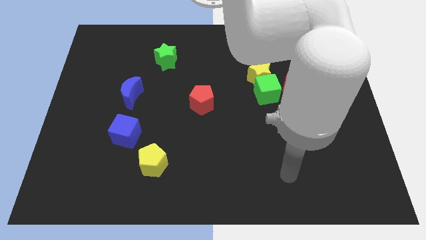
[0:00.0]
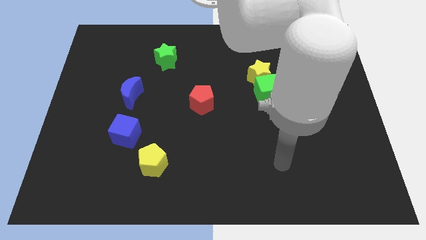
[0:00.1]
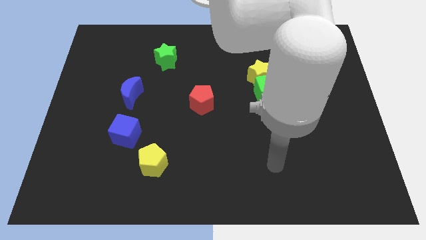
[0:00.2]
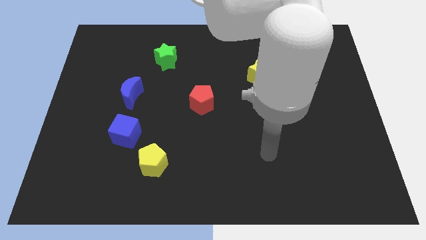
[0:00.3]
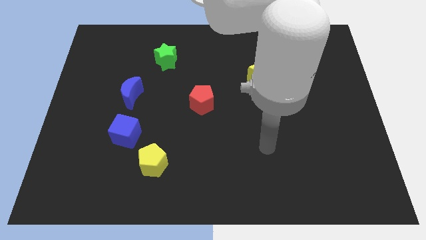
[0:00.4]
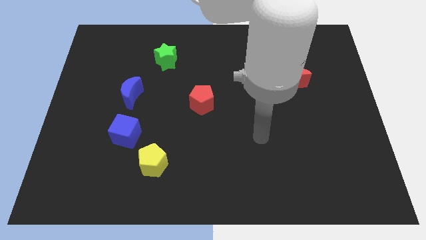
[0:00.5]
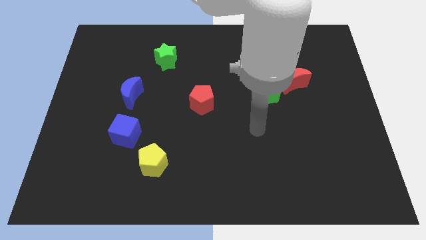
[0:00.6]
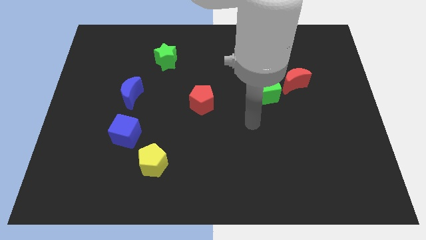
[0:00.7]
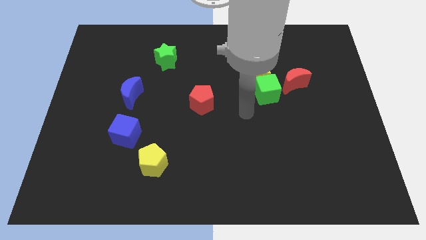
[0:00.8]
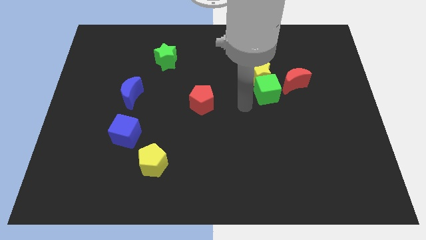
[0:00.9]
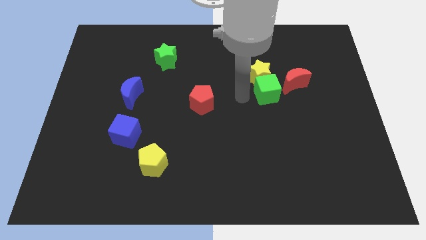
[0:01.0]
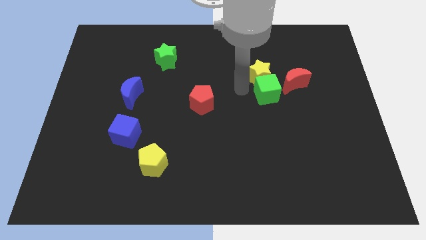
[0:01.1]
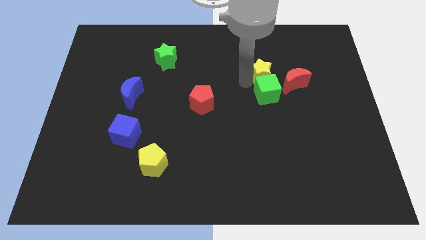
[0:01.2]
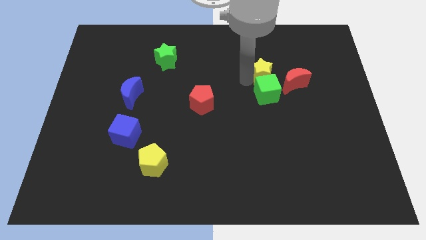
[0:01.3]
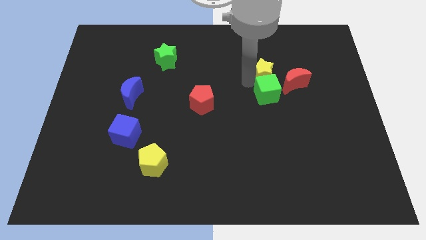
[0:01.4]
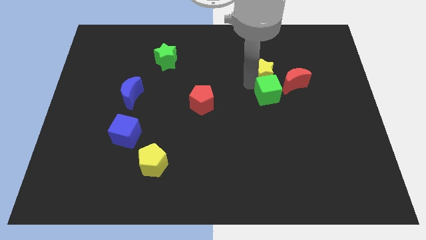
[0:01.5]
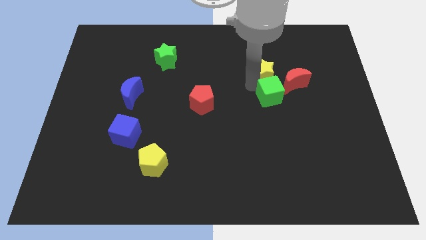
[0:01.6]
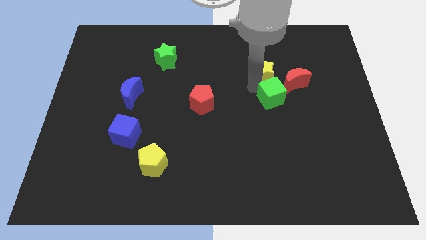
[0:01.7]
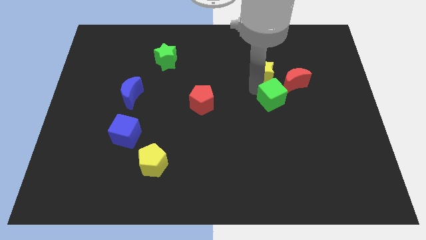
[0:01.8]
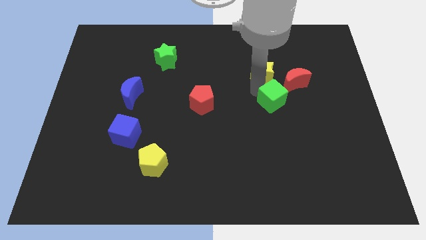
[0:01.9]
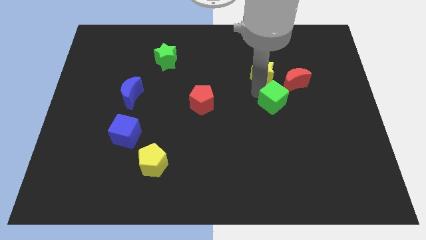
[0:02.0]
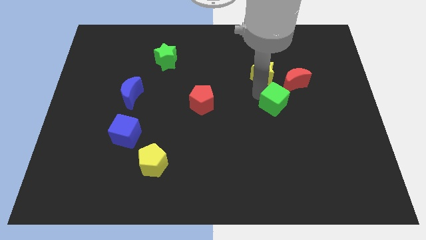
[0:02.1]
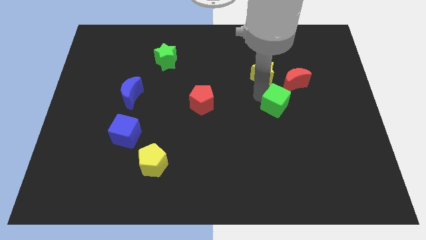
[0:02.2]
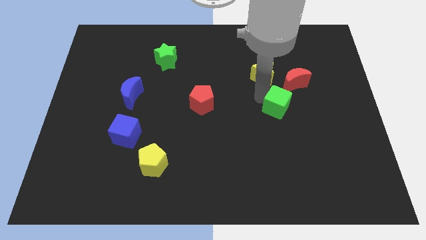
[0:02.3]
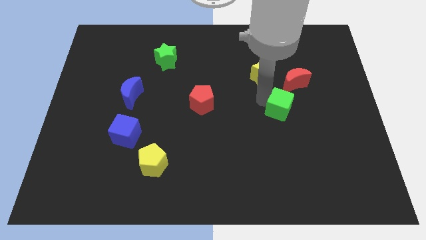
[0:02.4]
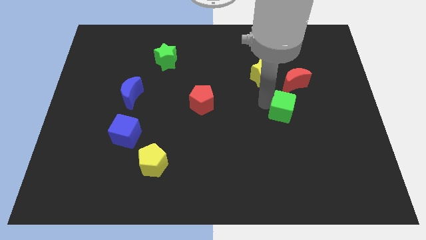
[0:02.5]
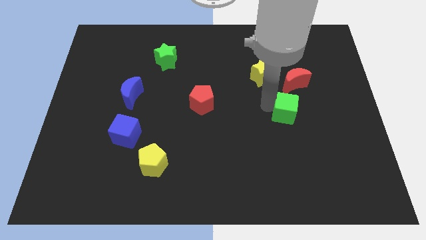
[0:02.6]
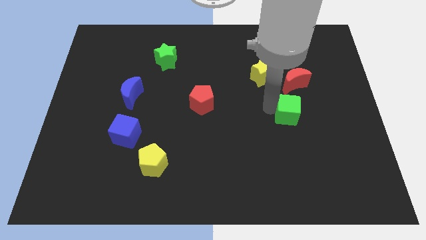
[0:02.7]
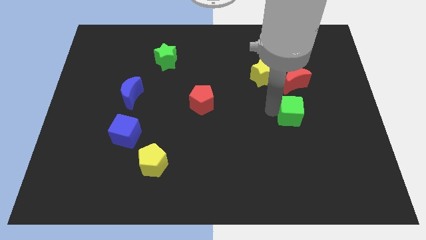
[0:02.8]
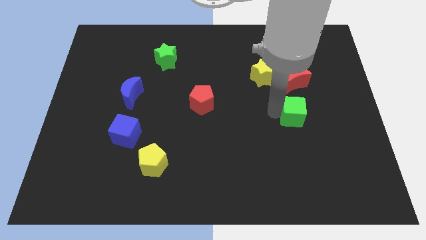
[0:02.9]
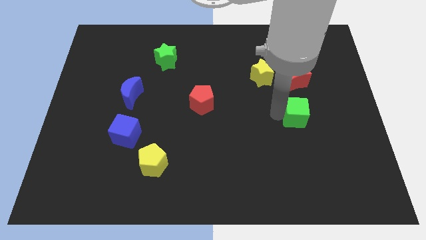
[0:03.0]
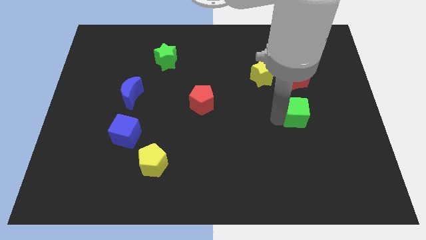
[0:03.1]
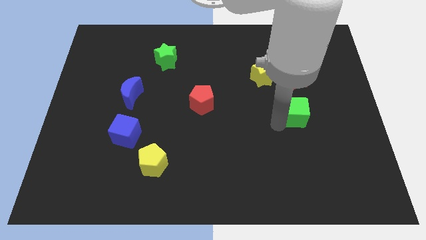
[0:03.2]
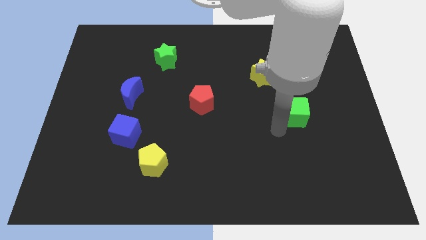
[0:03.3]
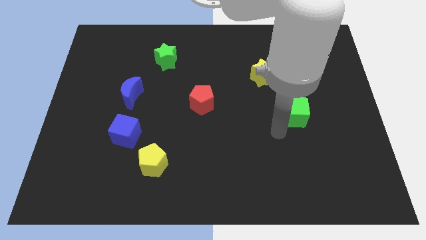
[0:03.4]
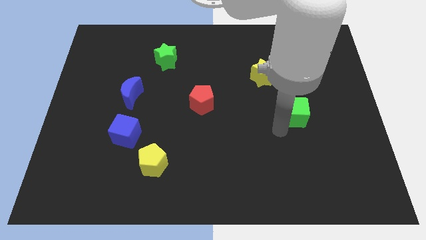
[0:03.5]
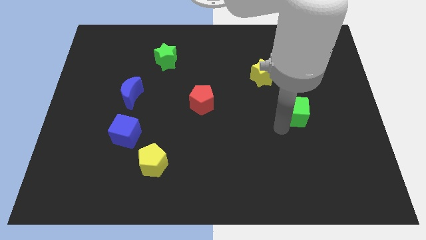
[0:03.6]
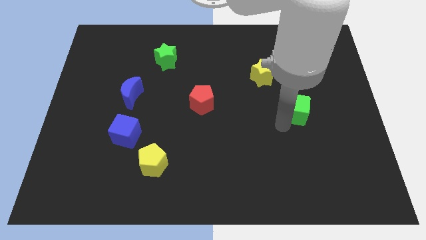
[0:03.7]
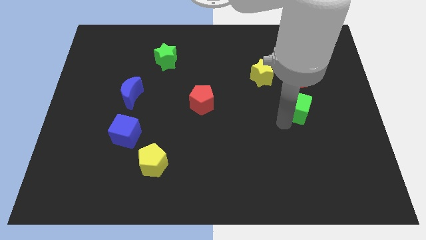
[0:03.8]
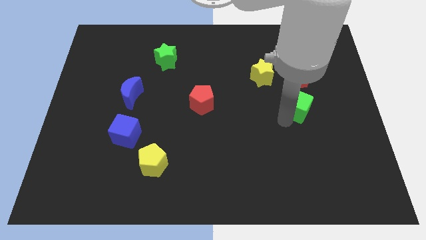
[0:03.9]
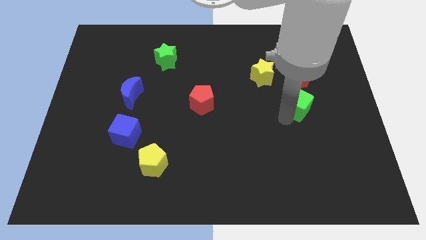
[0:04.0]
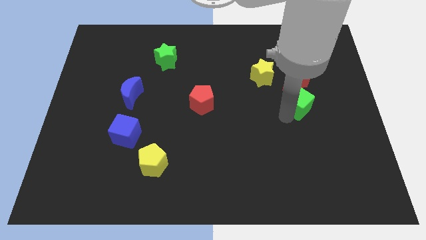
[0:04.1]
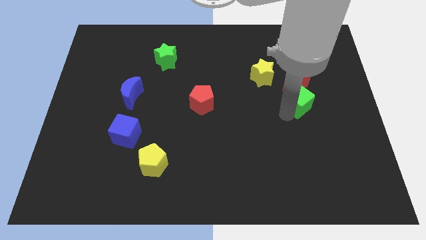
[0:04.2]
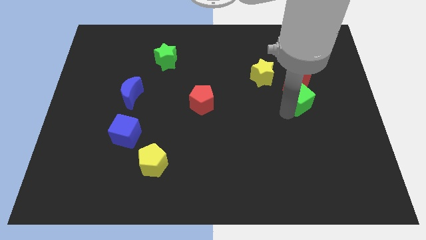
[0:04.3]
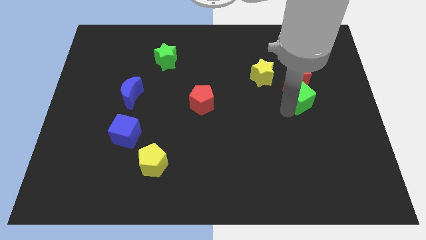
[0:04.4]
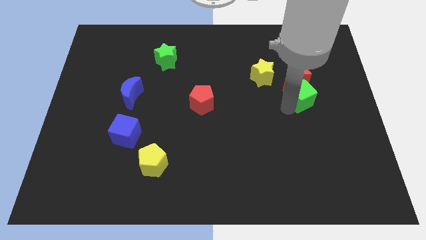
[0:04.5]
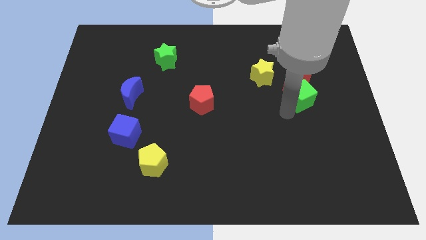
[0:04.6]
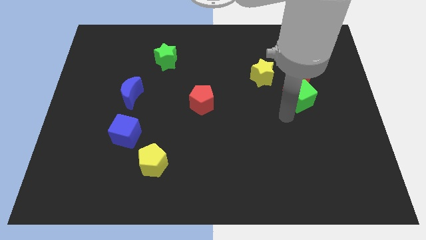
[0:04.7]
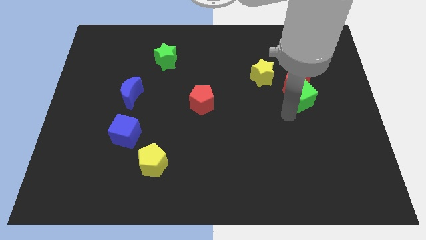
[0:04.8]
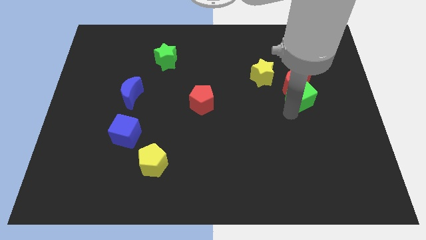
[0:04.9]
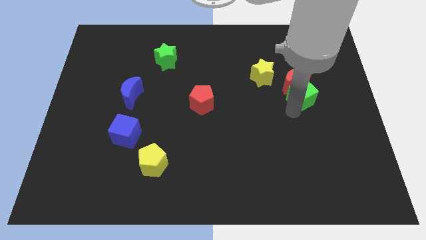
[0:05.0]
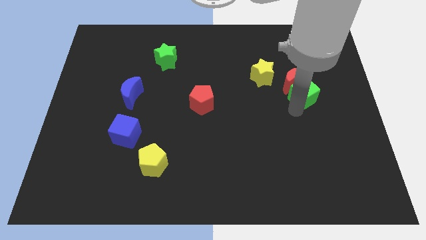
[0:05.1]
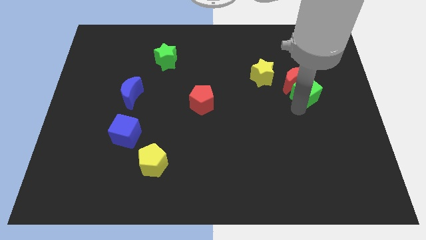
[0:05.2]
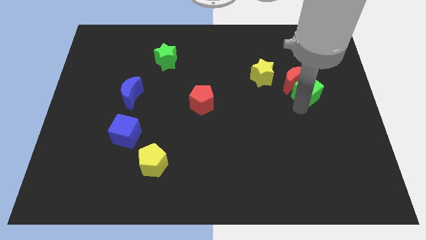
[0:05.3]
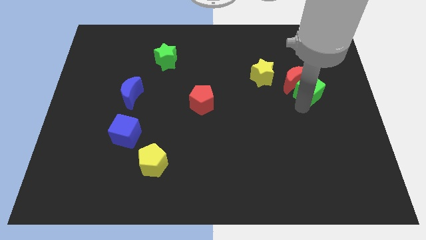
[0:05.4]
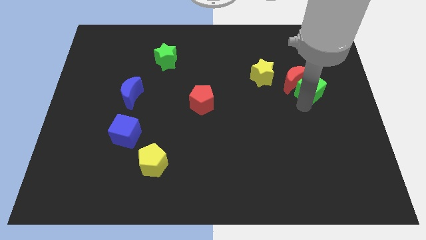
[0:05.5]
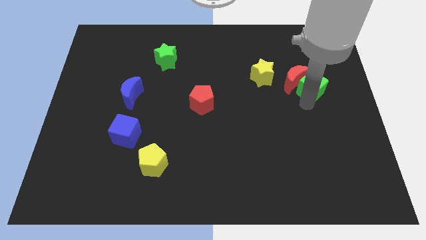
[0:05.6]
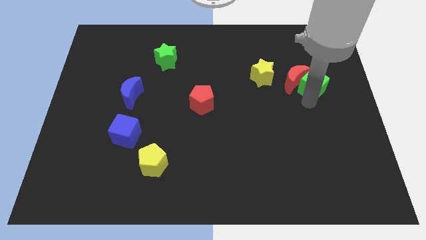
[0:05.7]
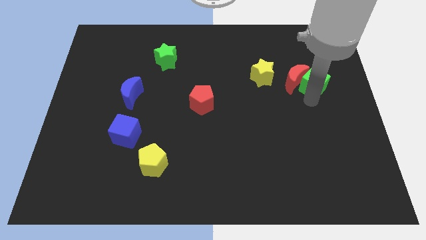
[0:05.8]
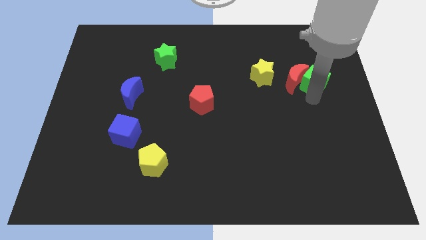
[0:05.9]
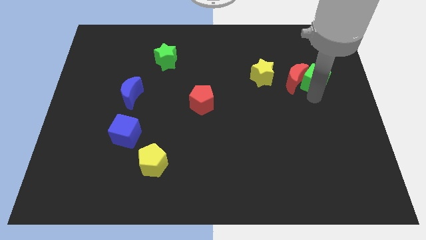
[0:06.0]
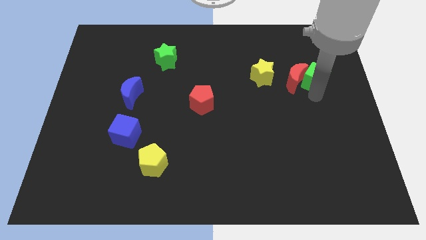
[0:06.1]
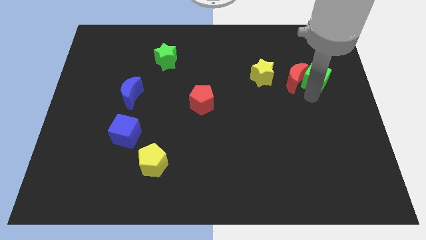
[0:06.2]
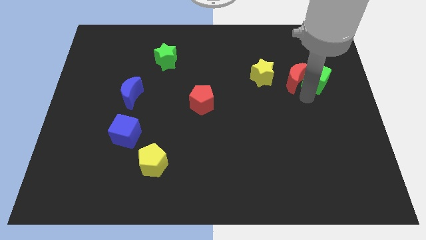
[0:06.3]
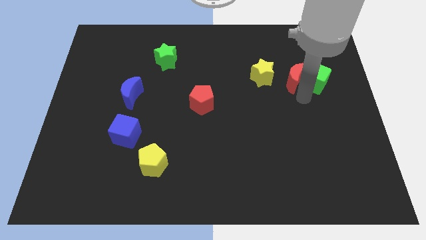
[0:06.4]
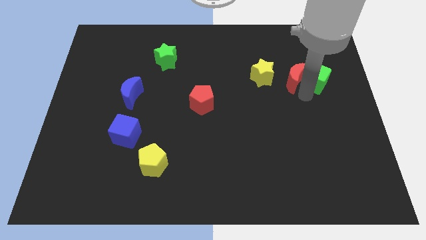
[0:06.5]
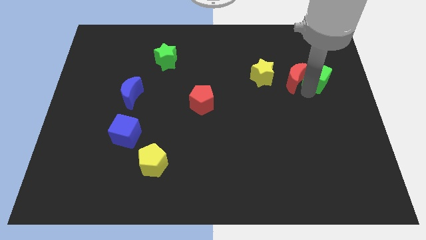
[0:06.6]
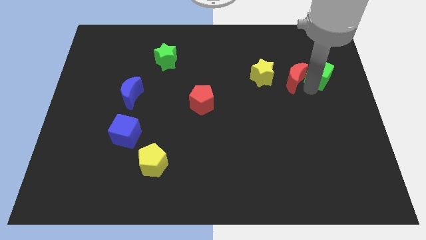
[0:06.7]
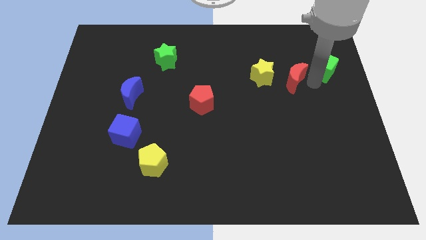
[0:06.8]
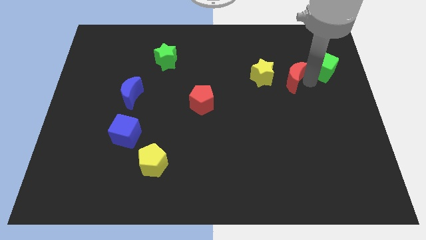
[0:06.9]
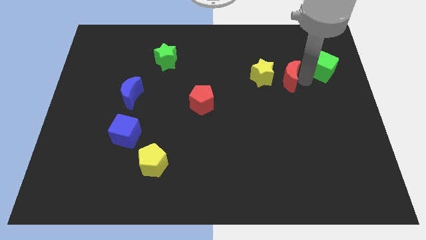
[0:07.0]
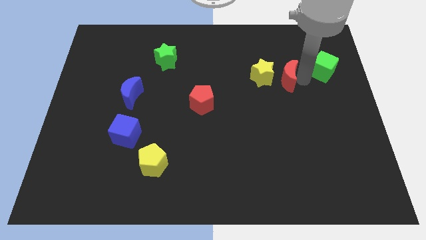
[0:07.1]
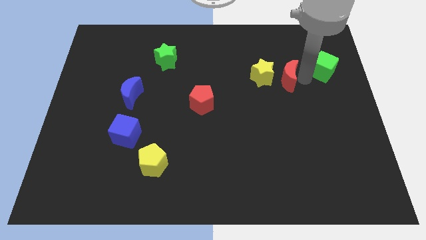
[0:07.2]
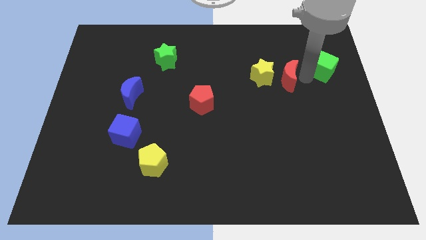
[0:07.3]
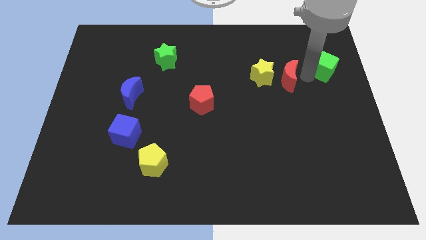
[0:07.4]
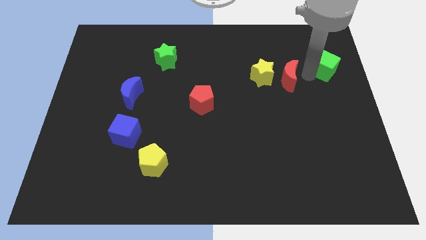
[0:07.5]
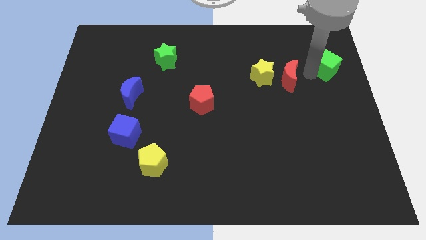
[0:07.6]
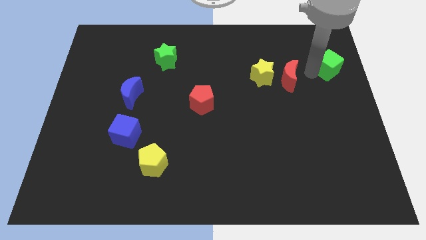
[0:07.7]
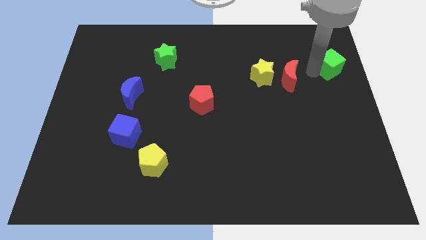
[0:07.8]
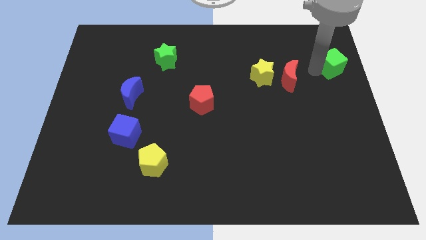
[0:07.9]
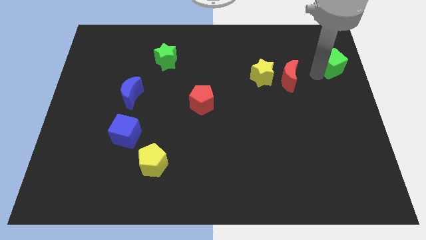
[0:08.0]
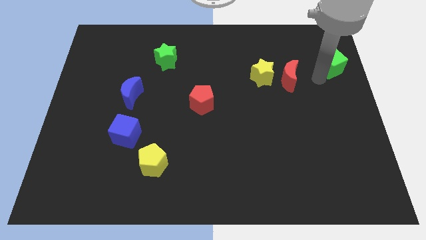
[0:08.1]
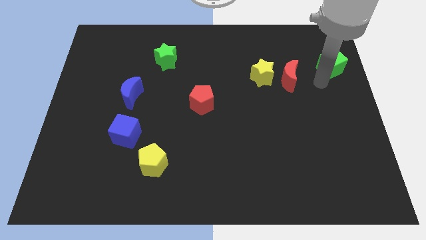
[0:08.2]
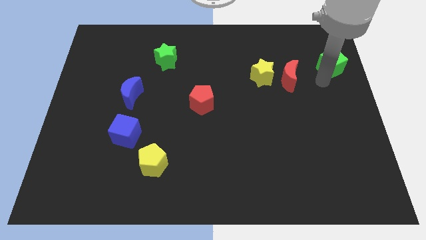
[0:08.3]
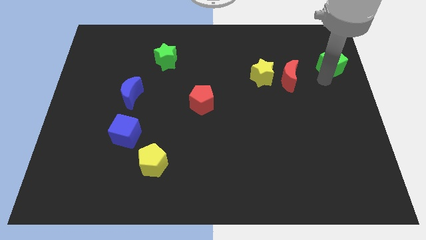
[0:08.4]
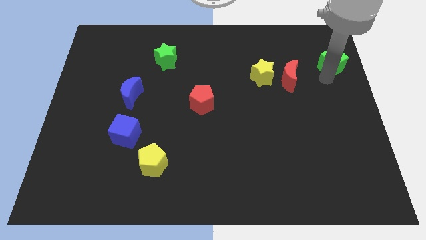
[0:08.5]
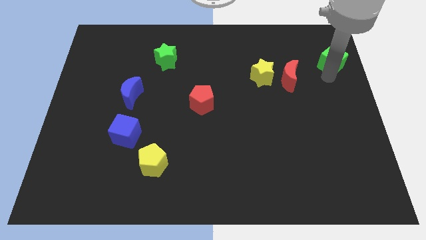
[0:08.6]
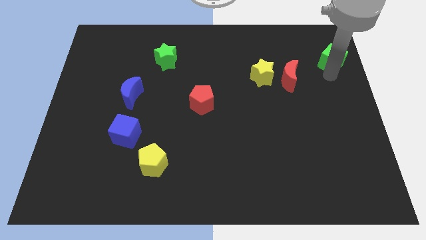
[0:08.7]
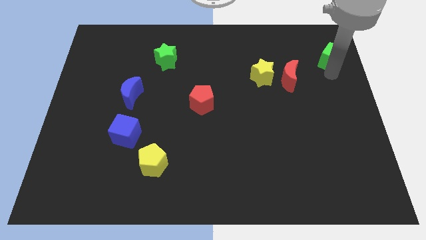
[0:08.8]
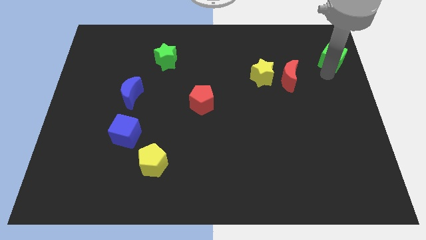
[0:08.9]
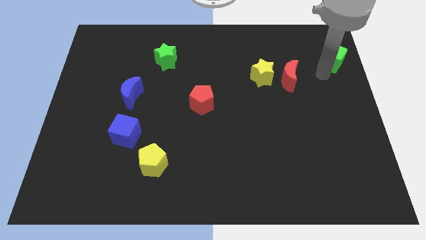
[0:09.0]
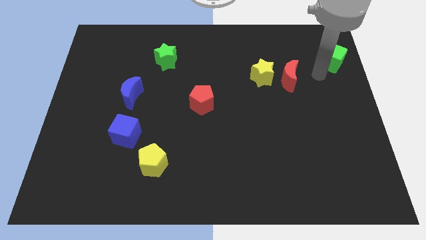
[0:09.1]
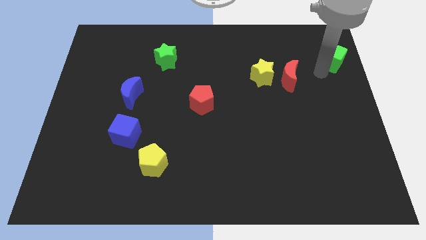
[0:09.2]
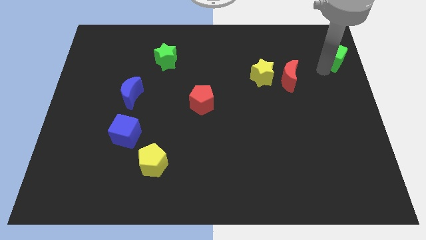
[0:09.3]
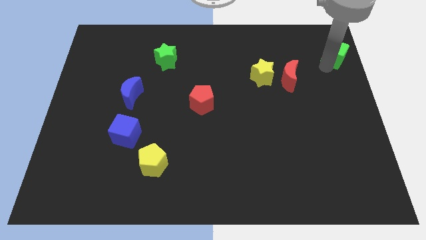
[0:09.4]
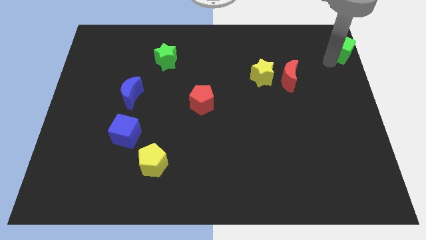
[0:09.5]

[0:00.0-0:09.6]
push the green cube to the upper right corner
